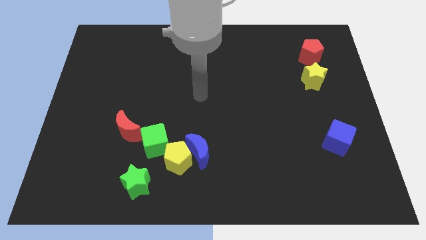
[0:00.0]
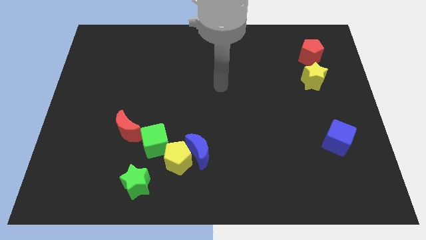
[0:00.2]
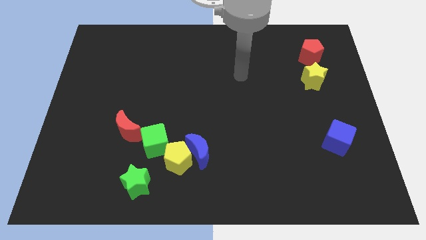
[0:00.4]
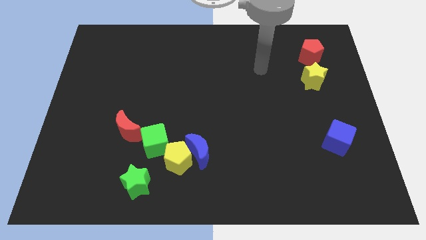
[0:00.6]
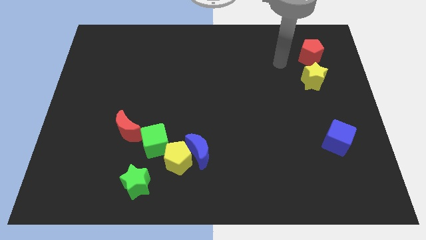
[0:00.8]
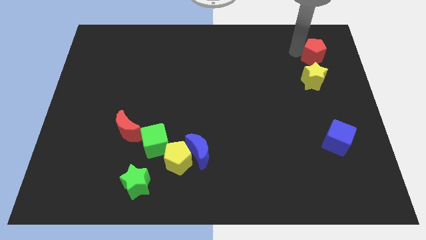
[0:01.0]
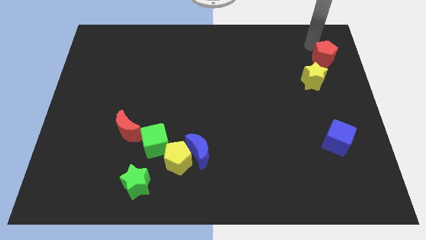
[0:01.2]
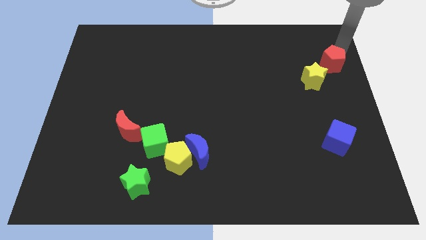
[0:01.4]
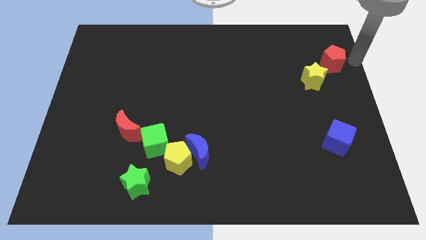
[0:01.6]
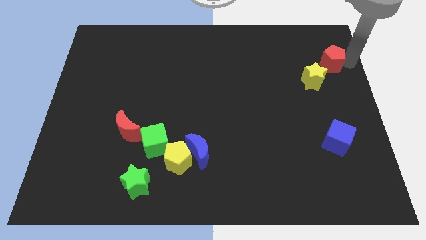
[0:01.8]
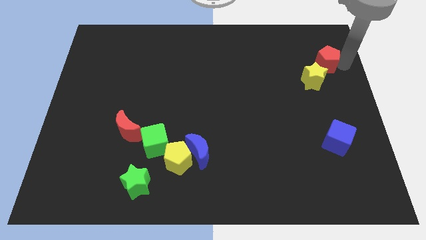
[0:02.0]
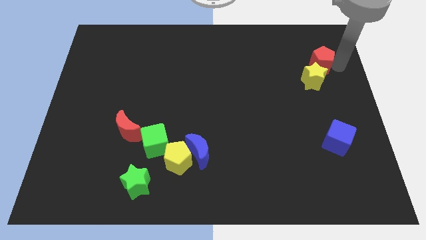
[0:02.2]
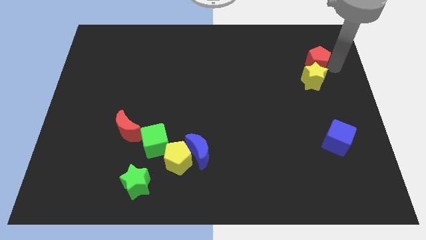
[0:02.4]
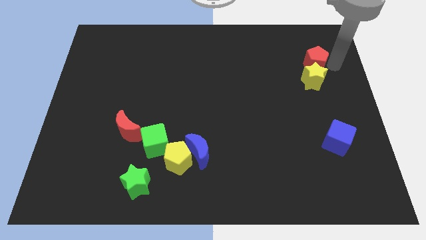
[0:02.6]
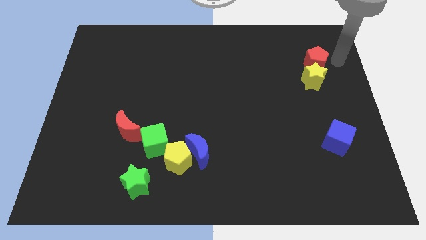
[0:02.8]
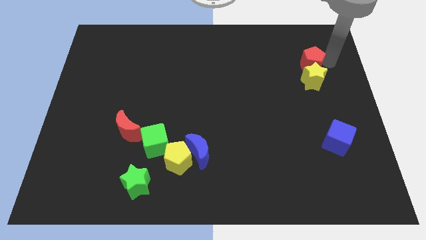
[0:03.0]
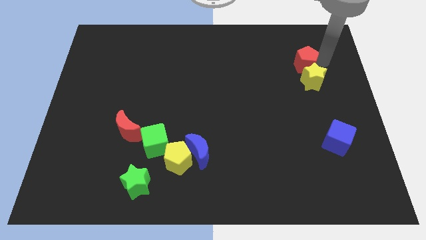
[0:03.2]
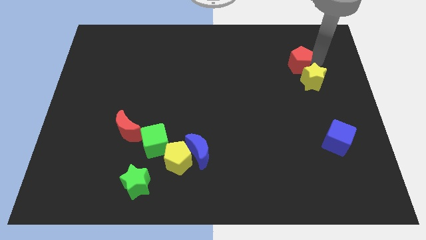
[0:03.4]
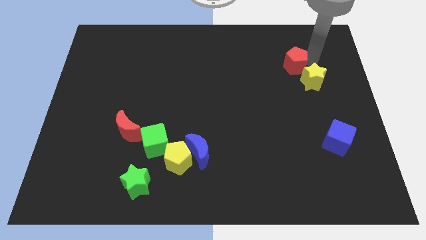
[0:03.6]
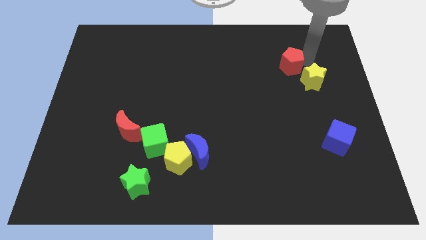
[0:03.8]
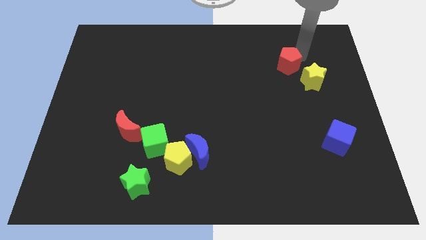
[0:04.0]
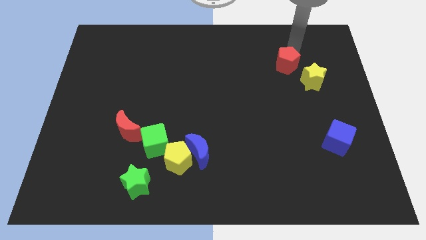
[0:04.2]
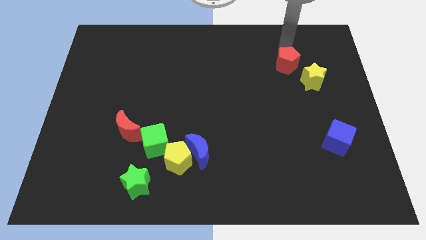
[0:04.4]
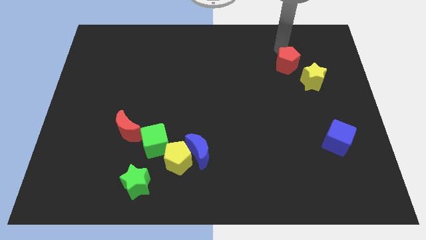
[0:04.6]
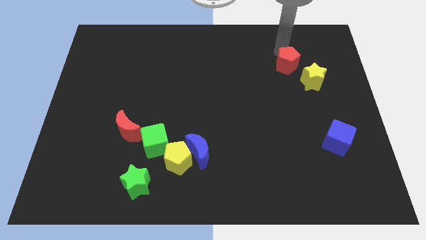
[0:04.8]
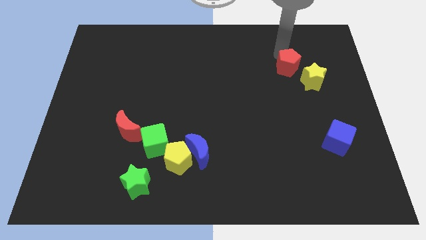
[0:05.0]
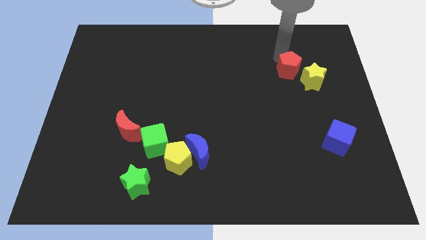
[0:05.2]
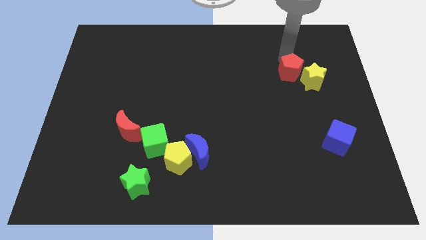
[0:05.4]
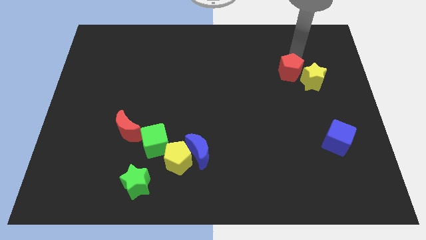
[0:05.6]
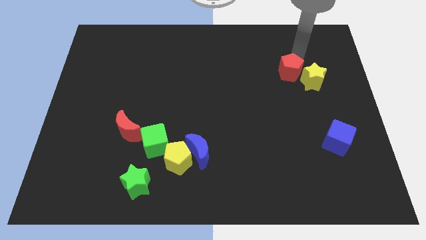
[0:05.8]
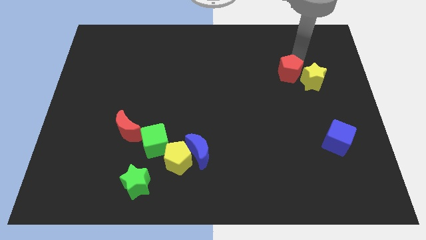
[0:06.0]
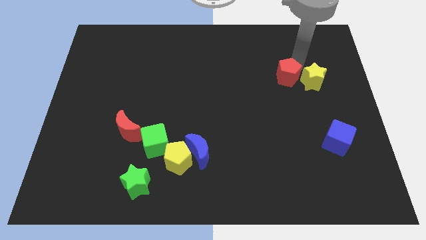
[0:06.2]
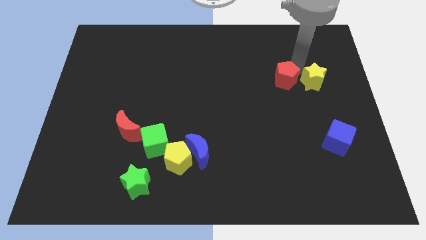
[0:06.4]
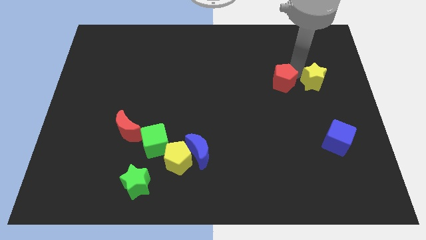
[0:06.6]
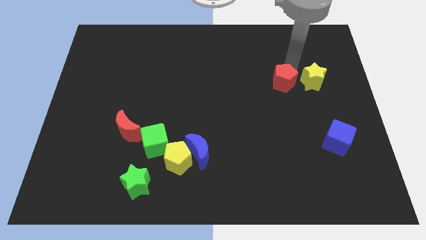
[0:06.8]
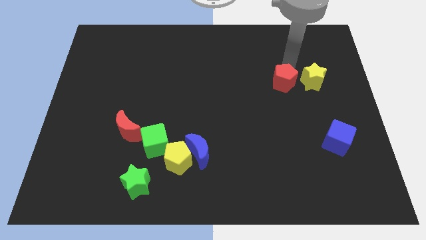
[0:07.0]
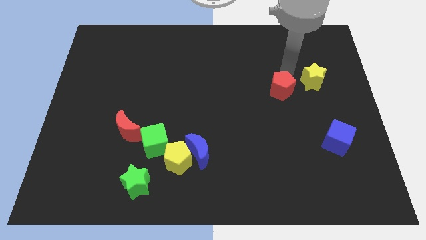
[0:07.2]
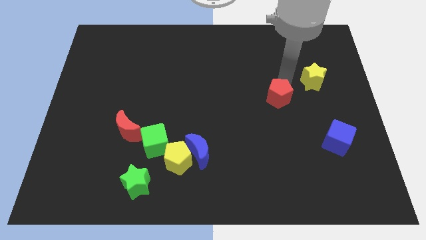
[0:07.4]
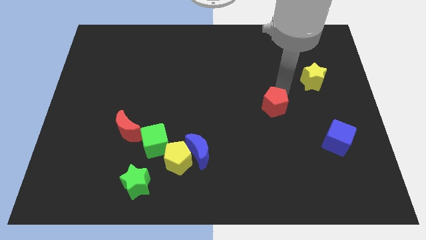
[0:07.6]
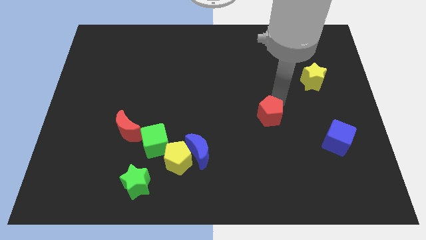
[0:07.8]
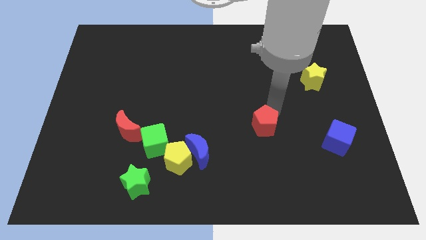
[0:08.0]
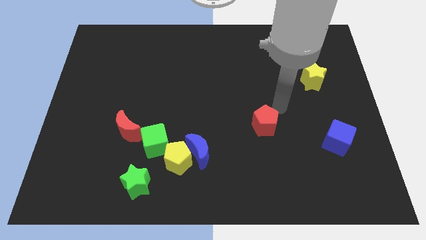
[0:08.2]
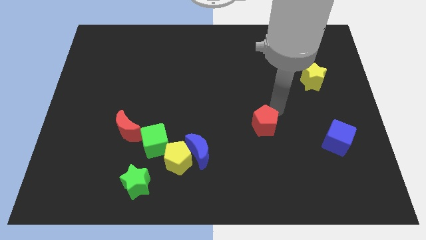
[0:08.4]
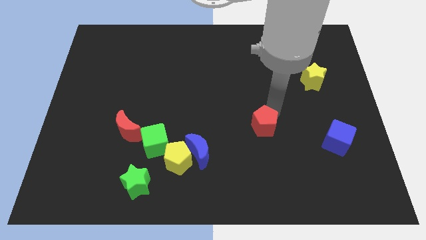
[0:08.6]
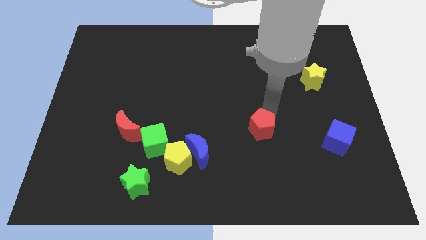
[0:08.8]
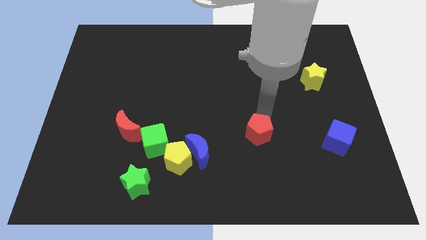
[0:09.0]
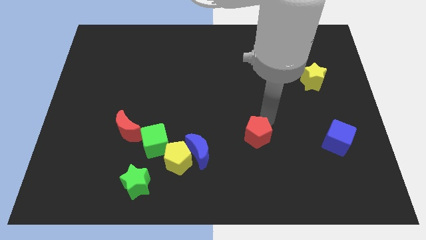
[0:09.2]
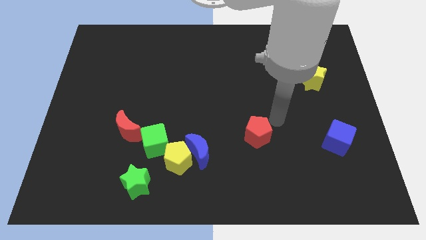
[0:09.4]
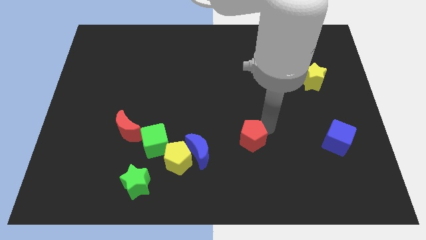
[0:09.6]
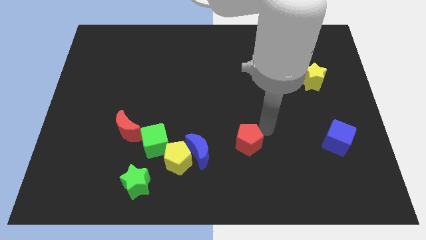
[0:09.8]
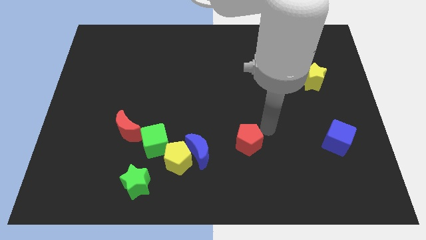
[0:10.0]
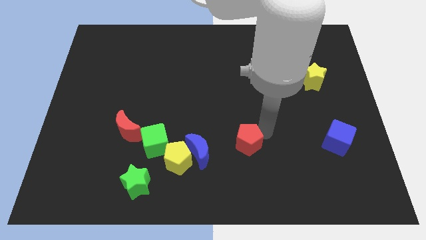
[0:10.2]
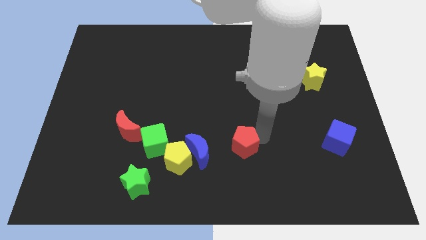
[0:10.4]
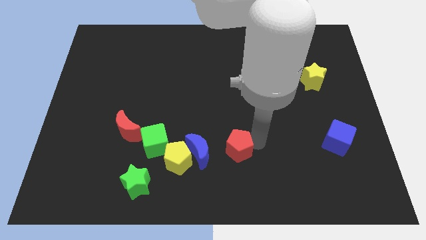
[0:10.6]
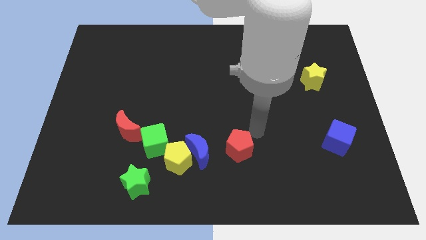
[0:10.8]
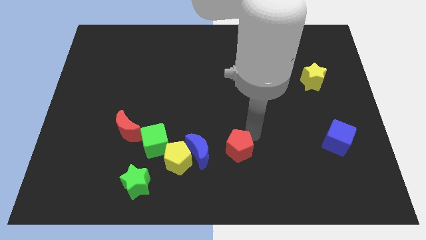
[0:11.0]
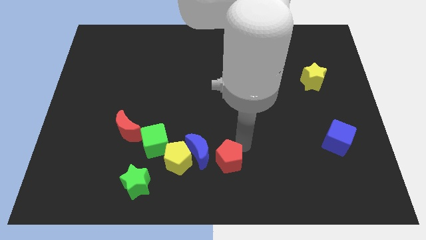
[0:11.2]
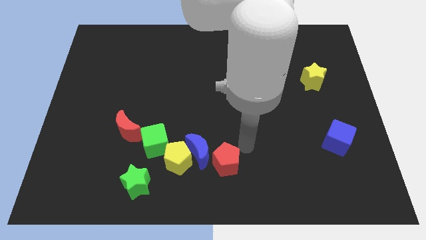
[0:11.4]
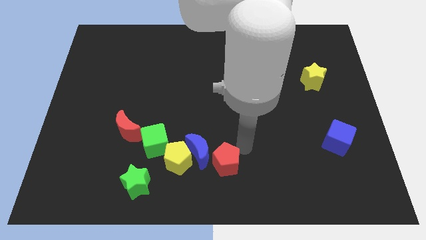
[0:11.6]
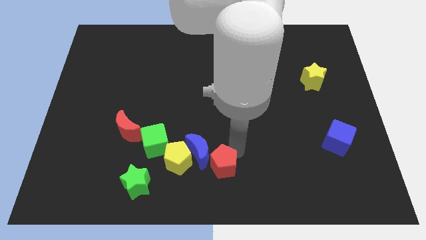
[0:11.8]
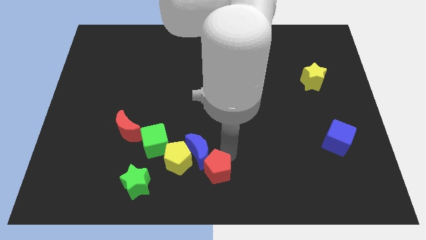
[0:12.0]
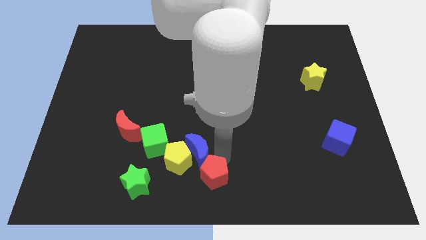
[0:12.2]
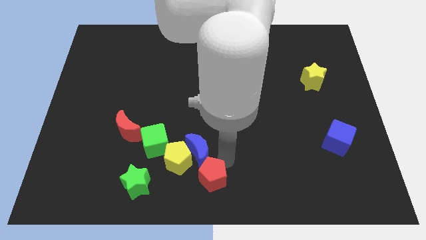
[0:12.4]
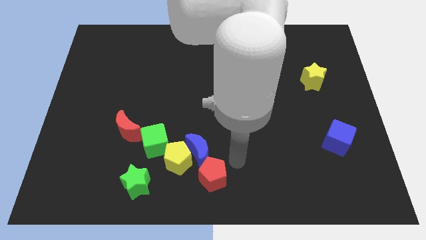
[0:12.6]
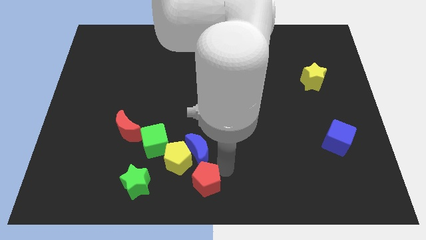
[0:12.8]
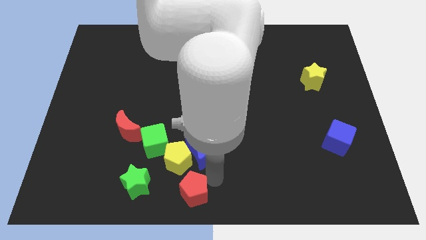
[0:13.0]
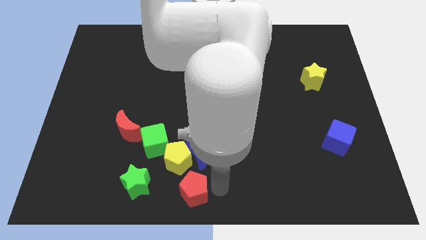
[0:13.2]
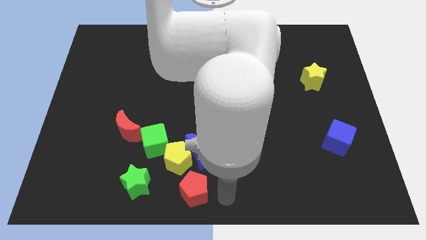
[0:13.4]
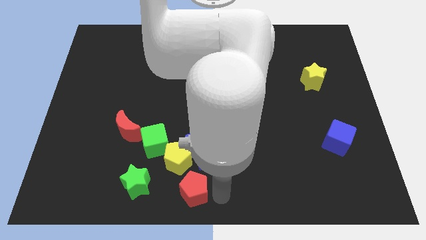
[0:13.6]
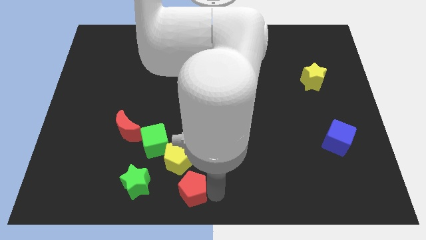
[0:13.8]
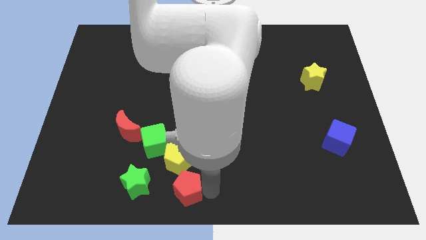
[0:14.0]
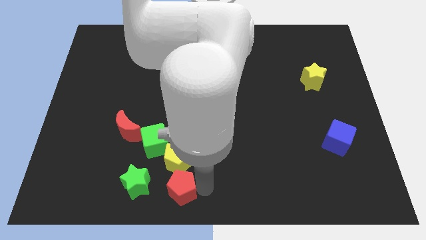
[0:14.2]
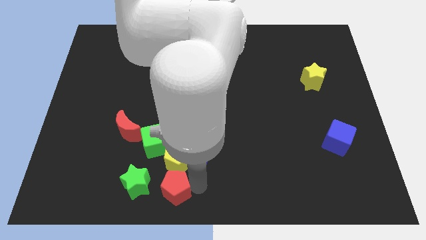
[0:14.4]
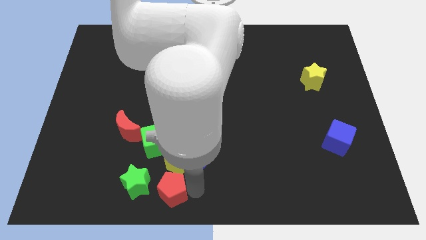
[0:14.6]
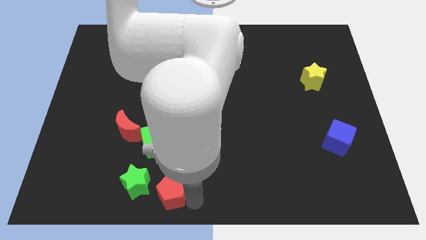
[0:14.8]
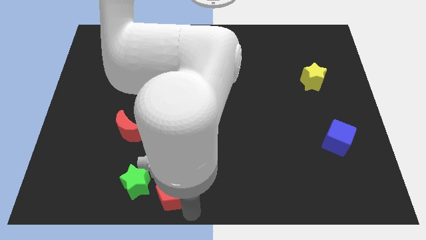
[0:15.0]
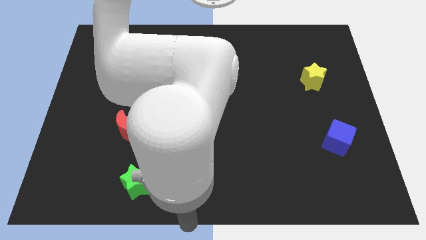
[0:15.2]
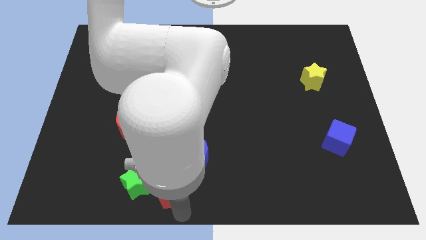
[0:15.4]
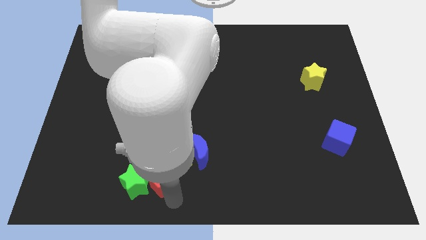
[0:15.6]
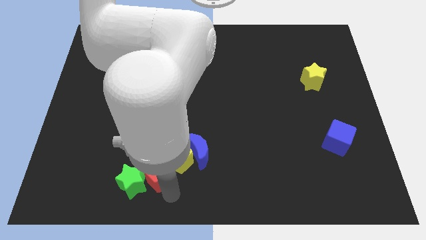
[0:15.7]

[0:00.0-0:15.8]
put the red pentagon left of the yellow pentagon
